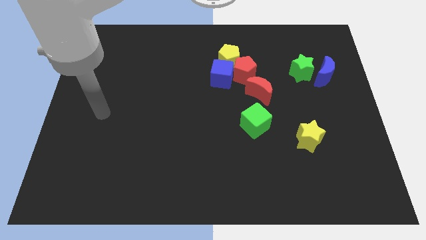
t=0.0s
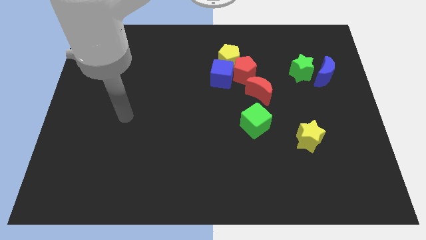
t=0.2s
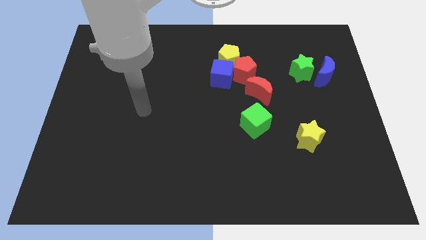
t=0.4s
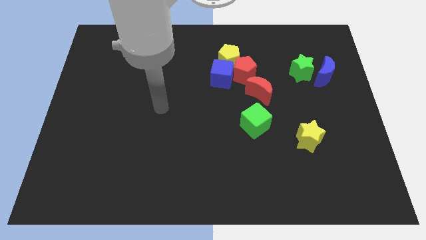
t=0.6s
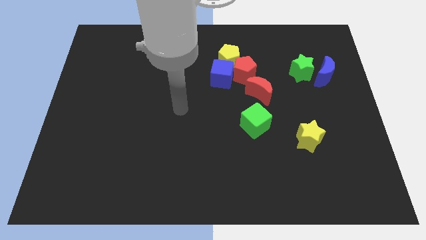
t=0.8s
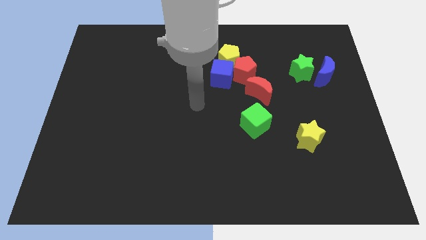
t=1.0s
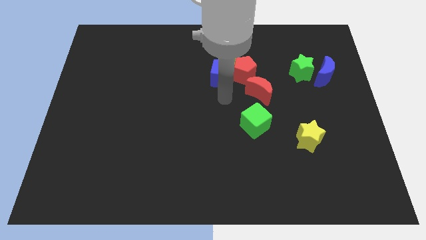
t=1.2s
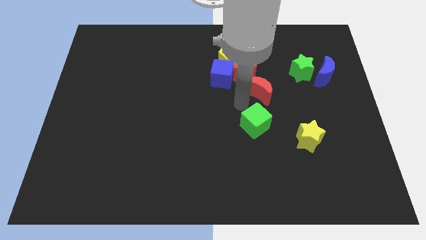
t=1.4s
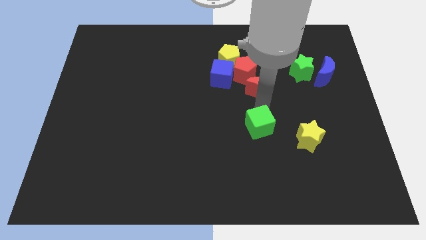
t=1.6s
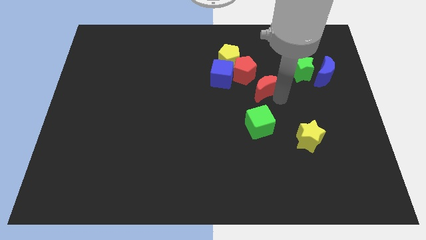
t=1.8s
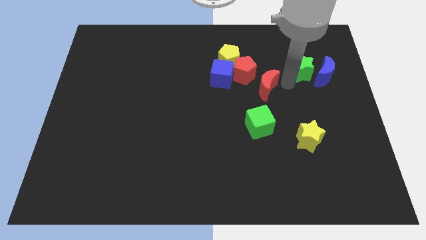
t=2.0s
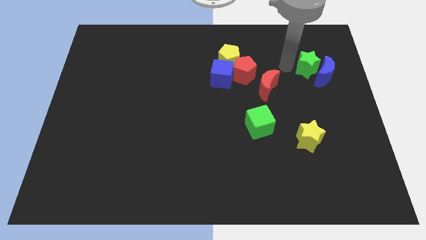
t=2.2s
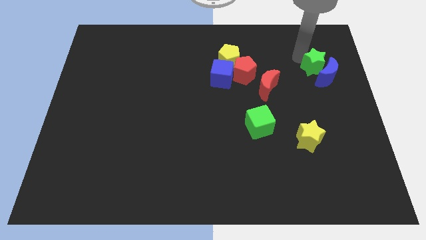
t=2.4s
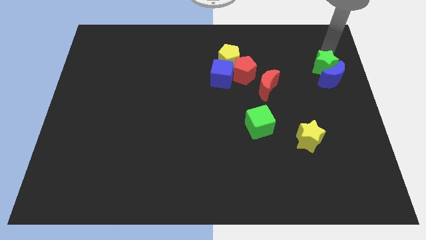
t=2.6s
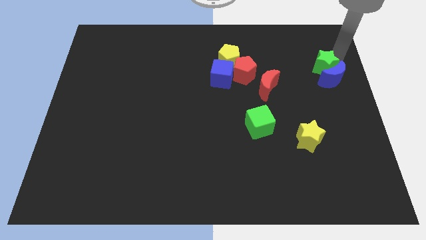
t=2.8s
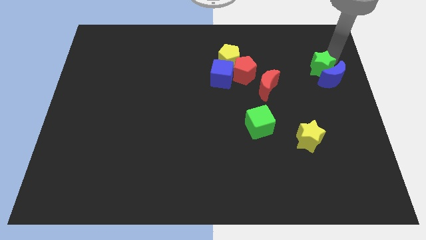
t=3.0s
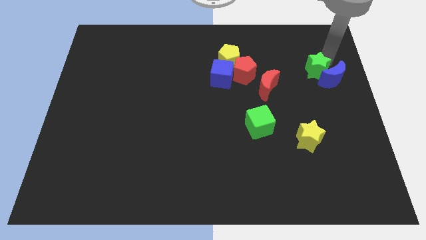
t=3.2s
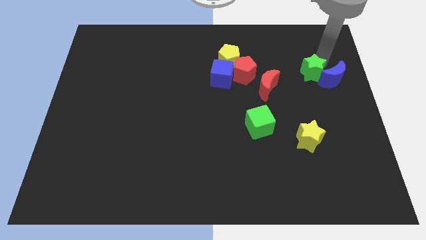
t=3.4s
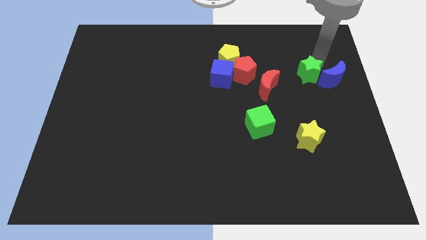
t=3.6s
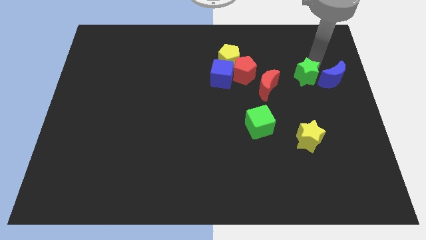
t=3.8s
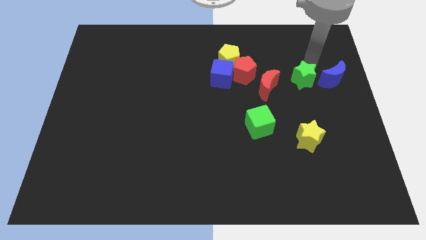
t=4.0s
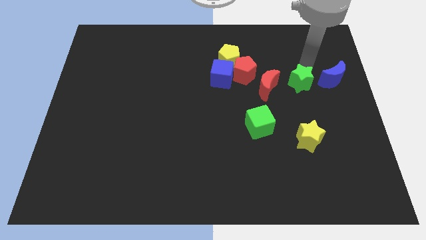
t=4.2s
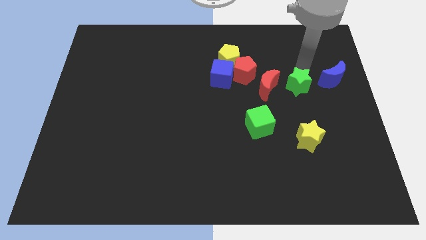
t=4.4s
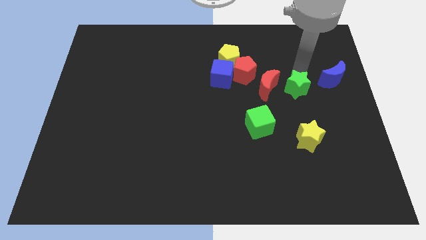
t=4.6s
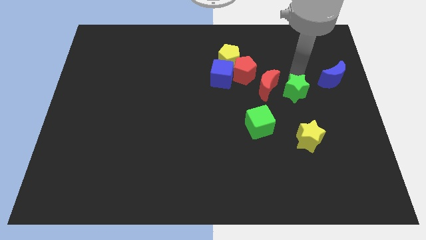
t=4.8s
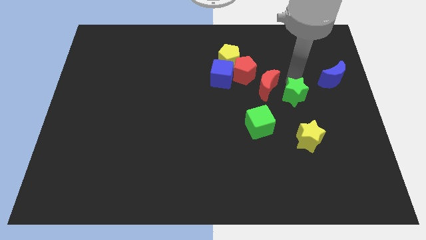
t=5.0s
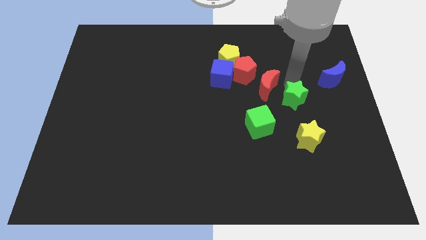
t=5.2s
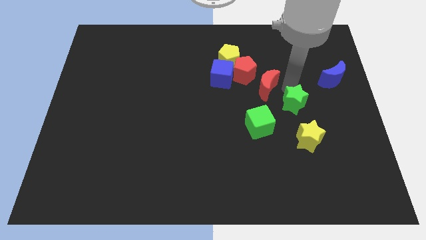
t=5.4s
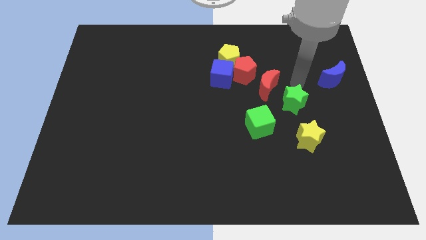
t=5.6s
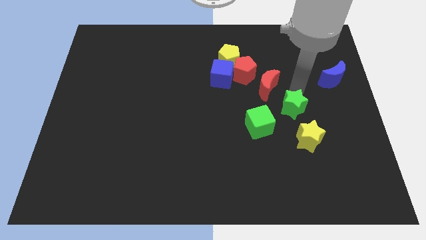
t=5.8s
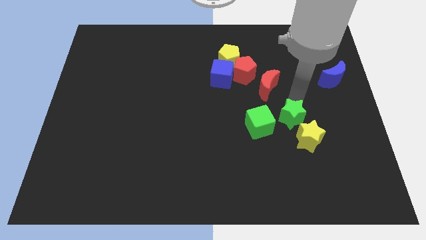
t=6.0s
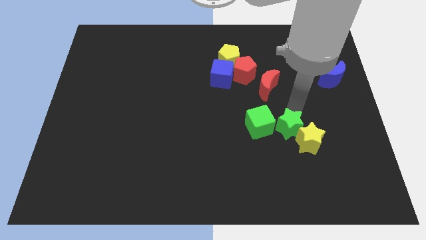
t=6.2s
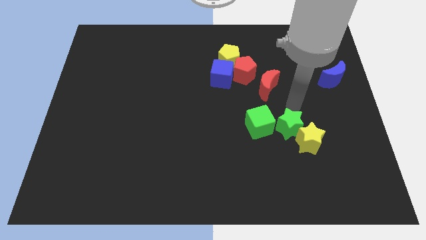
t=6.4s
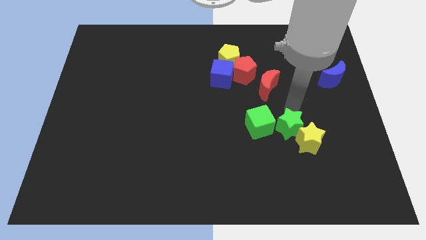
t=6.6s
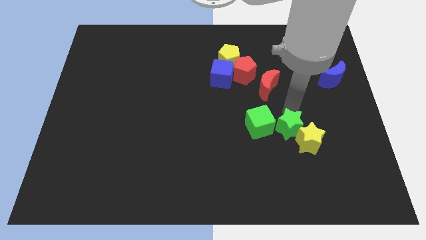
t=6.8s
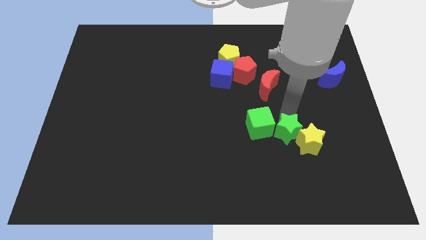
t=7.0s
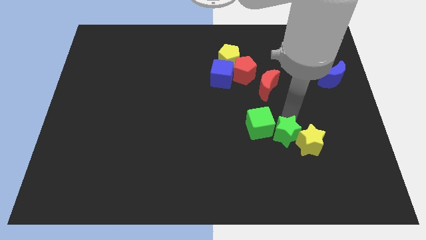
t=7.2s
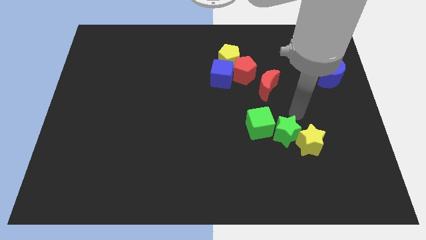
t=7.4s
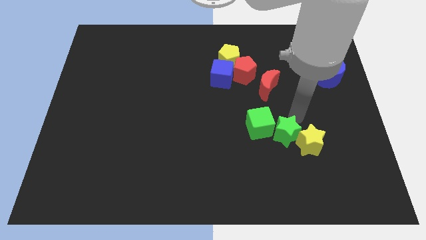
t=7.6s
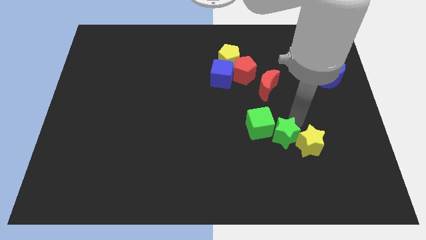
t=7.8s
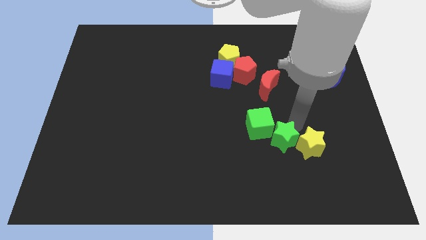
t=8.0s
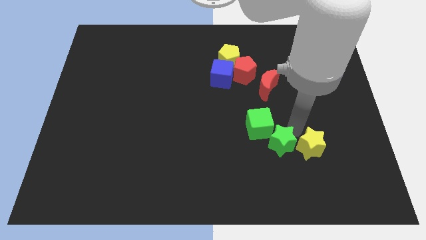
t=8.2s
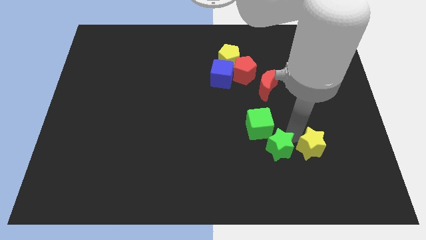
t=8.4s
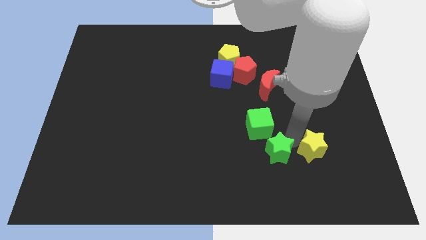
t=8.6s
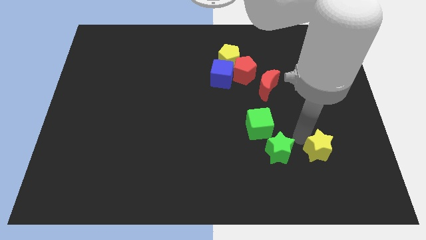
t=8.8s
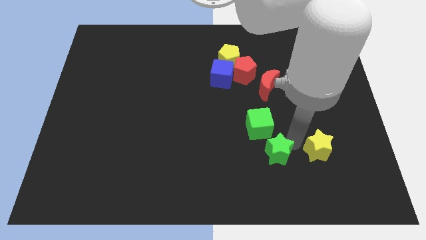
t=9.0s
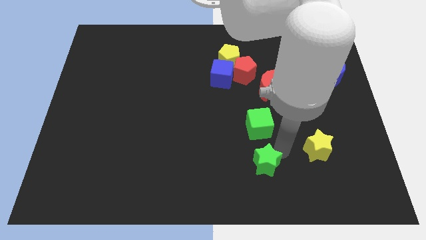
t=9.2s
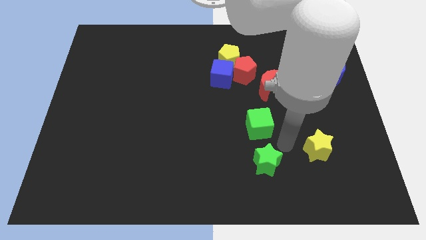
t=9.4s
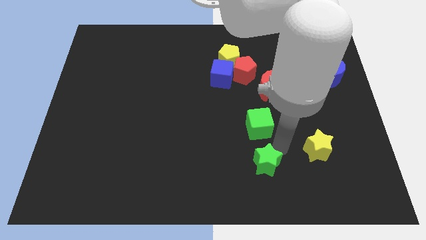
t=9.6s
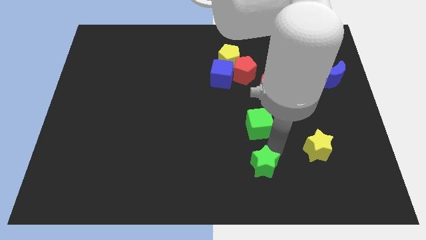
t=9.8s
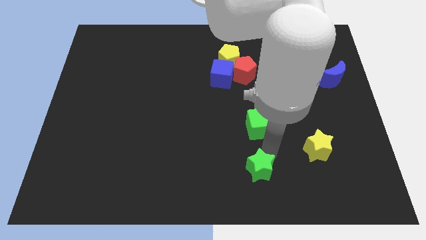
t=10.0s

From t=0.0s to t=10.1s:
slide the green star to the bottom

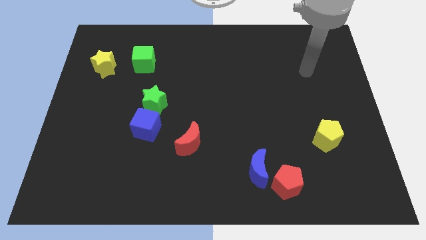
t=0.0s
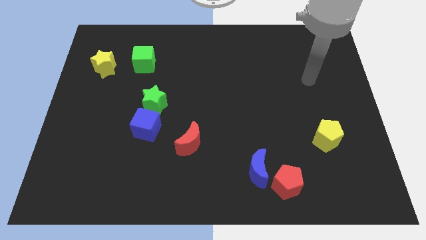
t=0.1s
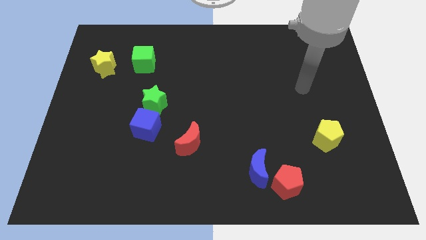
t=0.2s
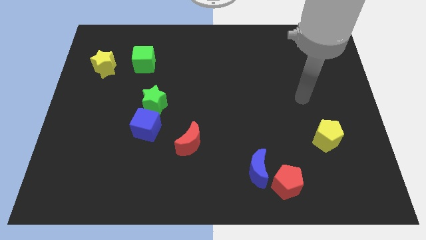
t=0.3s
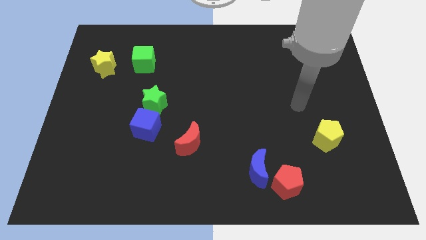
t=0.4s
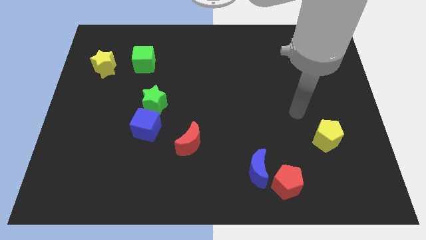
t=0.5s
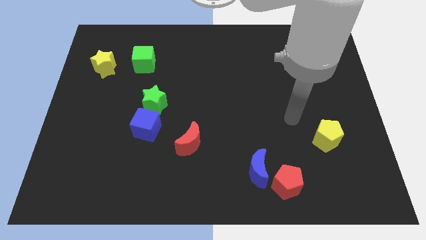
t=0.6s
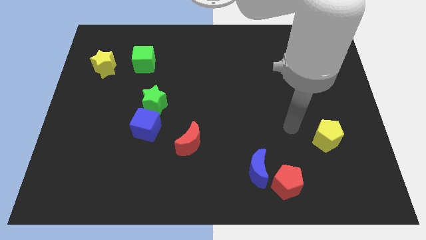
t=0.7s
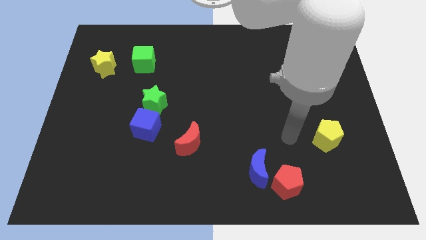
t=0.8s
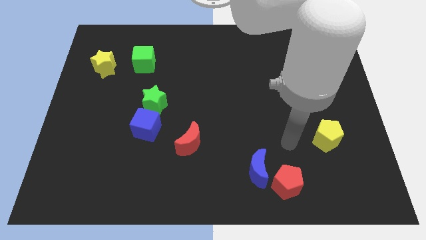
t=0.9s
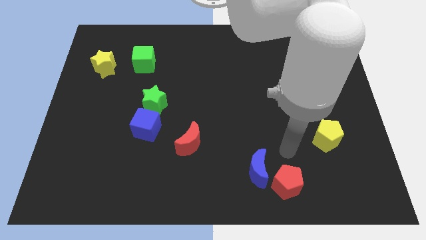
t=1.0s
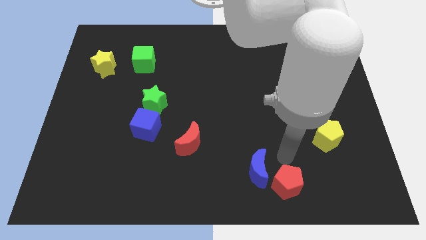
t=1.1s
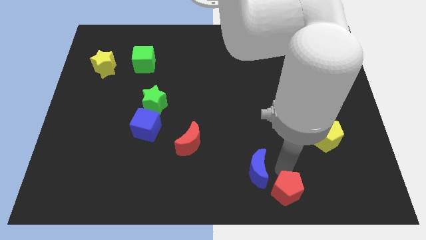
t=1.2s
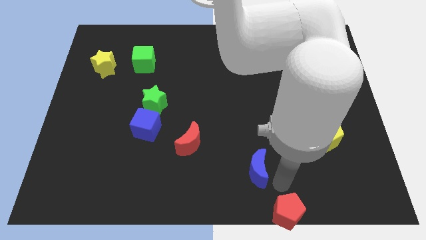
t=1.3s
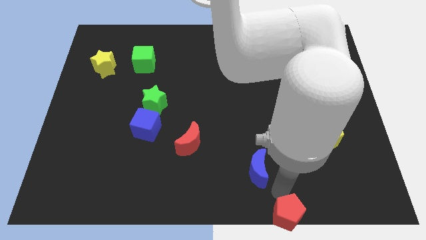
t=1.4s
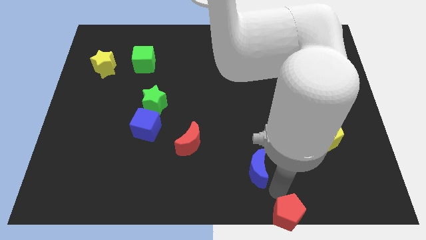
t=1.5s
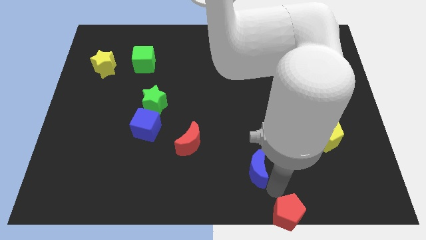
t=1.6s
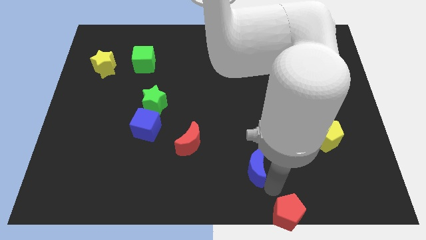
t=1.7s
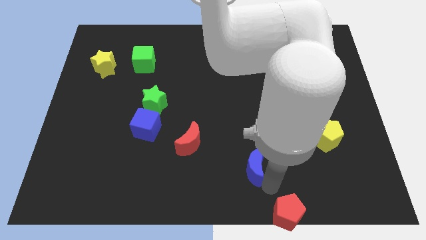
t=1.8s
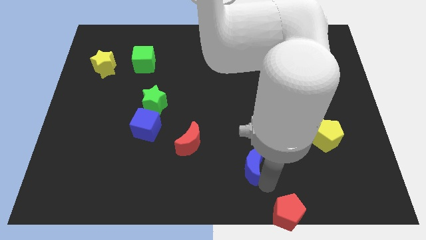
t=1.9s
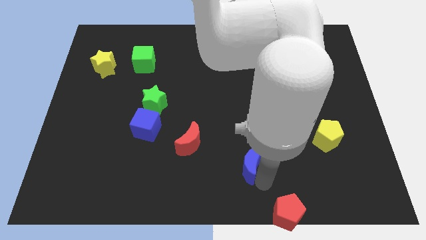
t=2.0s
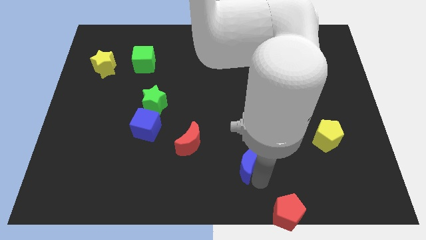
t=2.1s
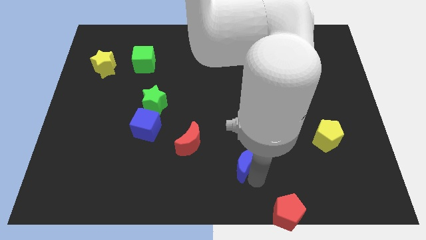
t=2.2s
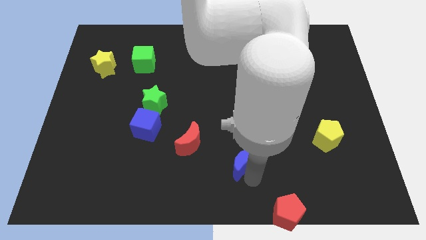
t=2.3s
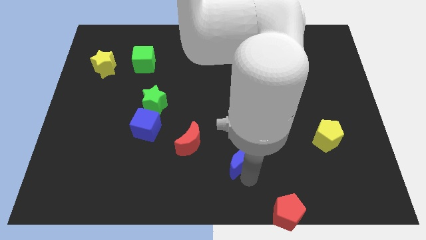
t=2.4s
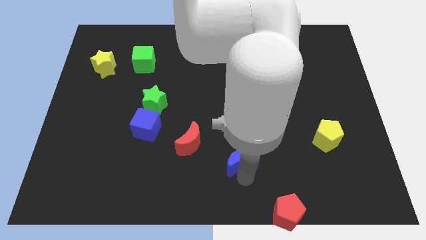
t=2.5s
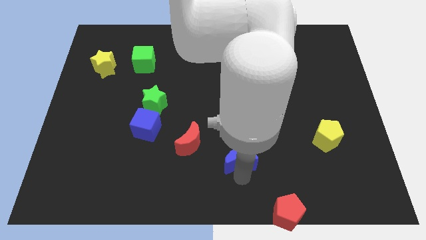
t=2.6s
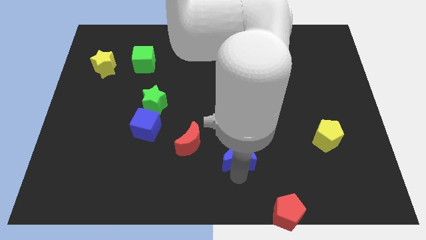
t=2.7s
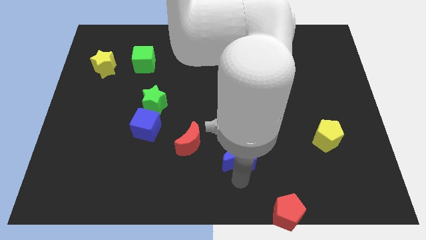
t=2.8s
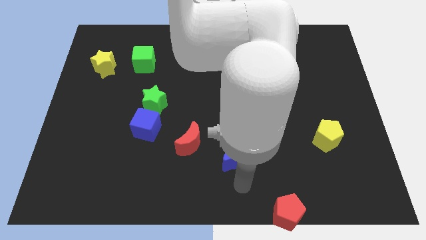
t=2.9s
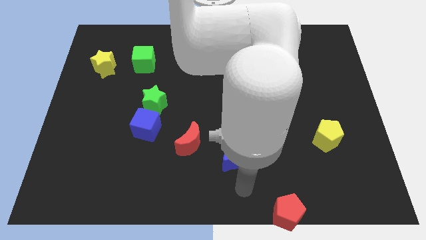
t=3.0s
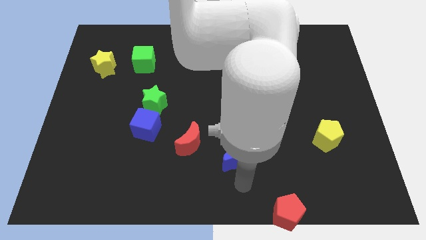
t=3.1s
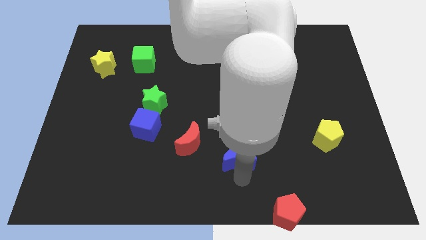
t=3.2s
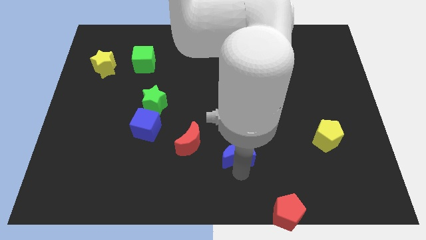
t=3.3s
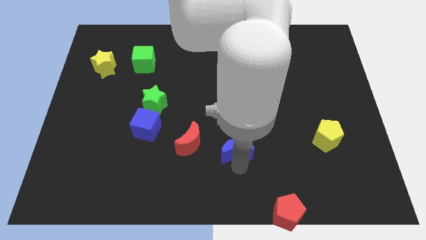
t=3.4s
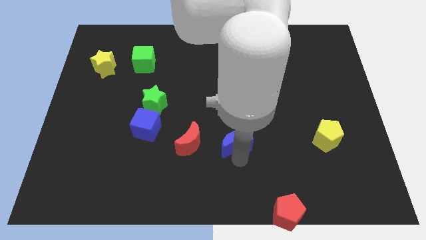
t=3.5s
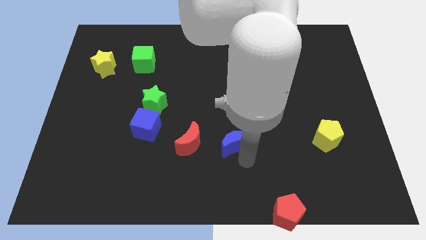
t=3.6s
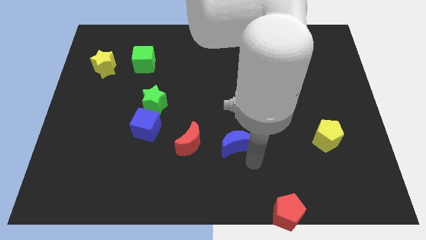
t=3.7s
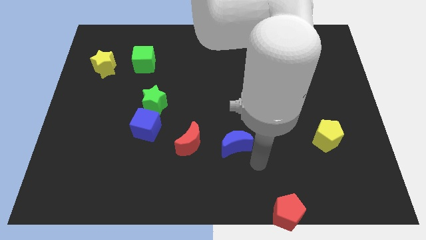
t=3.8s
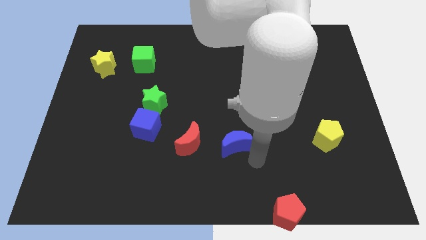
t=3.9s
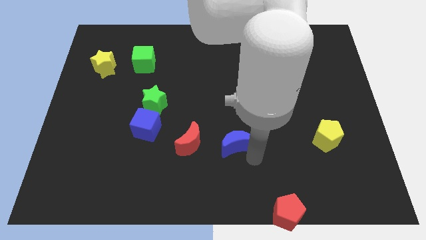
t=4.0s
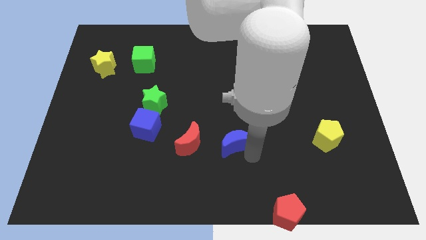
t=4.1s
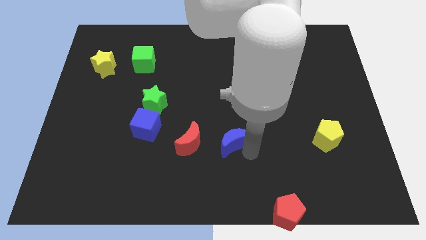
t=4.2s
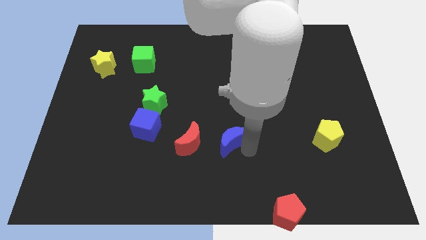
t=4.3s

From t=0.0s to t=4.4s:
put the blue moon to the center
